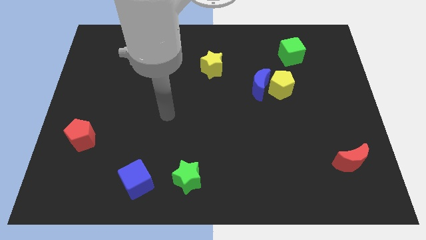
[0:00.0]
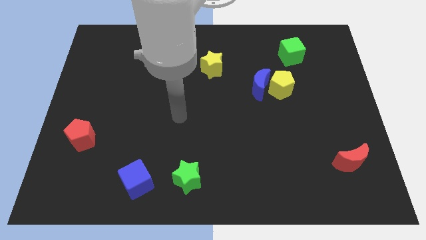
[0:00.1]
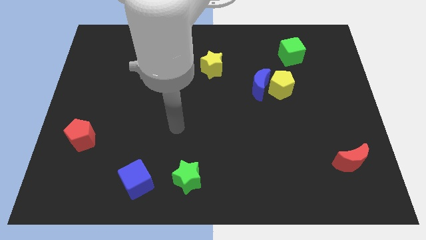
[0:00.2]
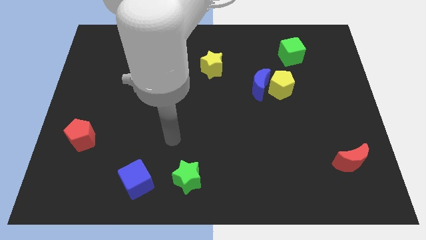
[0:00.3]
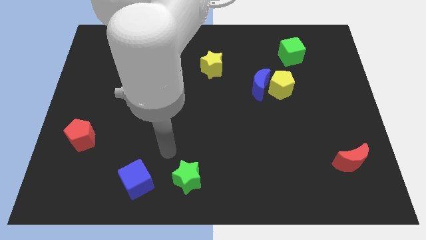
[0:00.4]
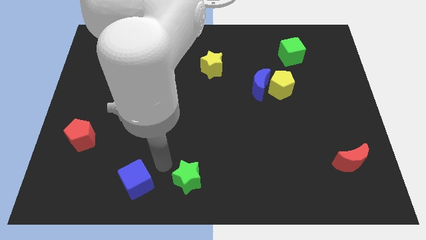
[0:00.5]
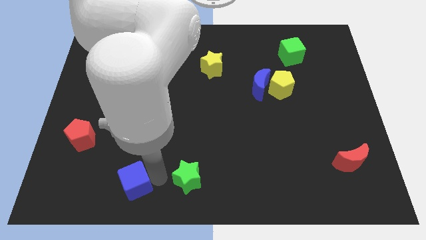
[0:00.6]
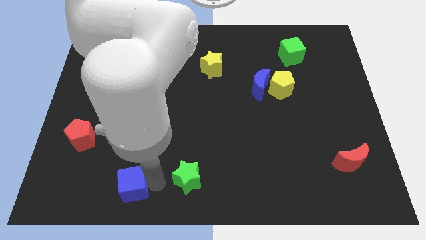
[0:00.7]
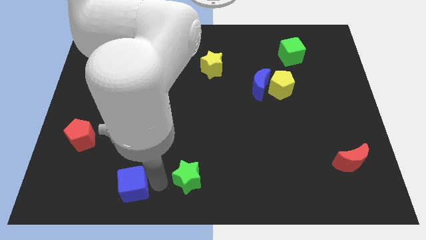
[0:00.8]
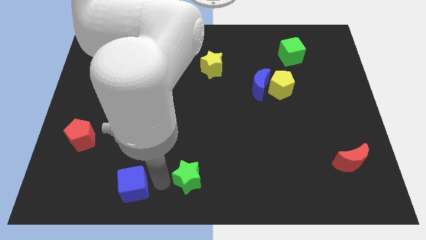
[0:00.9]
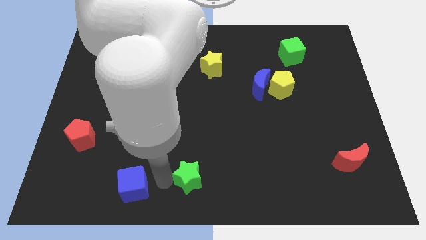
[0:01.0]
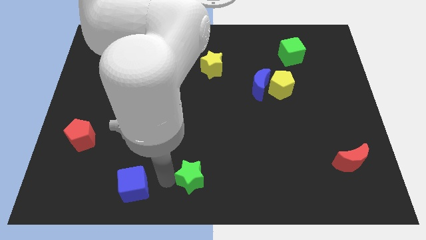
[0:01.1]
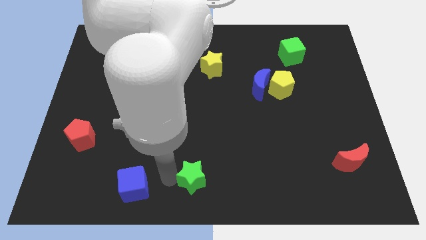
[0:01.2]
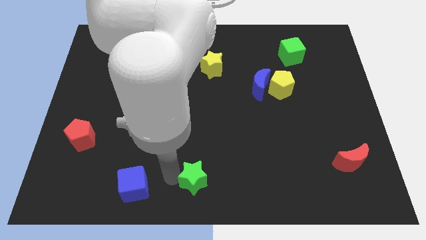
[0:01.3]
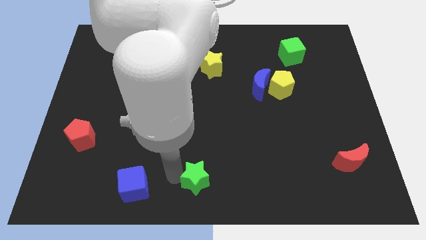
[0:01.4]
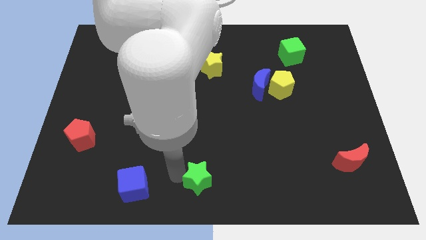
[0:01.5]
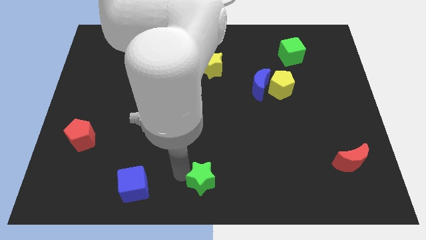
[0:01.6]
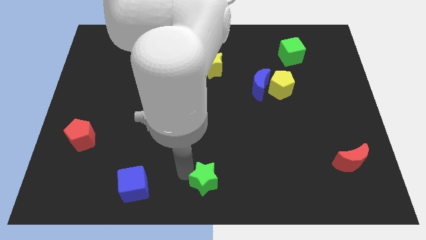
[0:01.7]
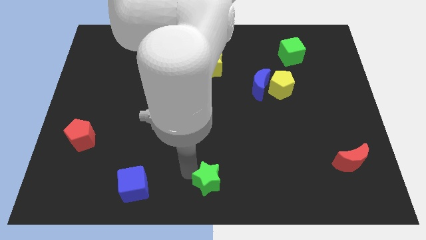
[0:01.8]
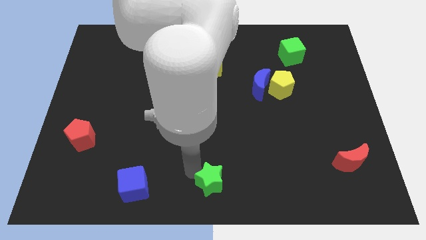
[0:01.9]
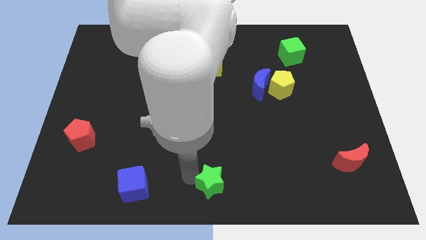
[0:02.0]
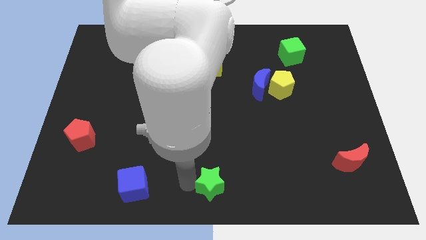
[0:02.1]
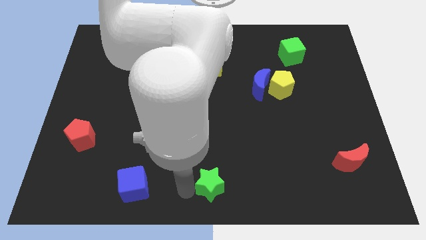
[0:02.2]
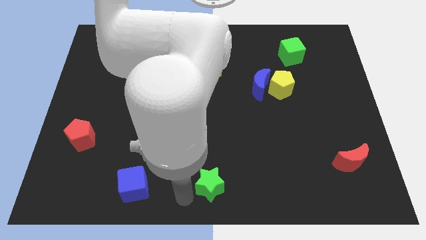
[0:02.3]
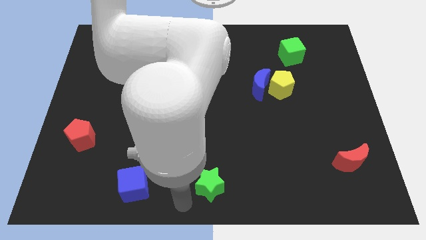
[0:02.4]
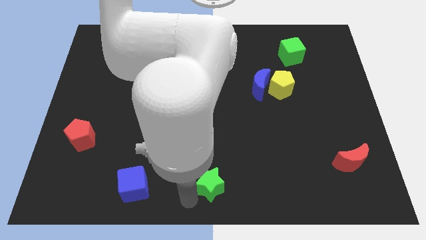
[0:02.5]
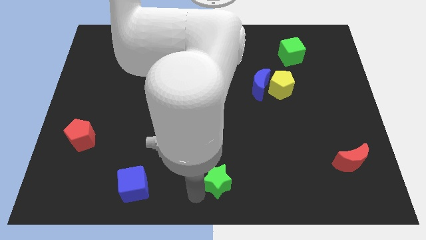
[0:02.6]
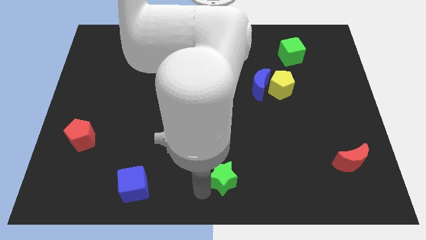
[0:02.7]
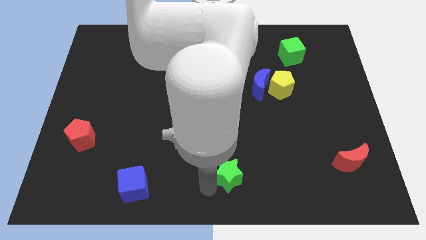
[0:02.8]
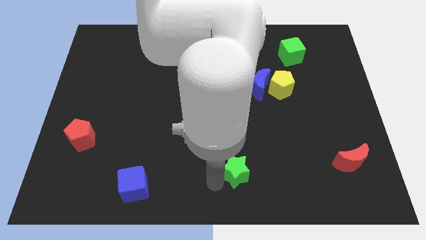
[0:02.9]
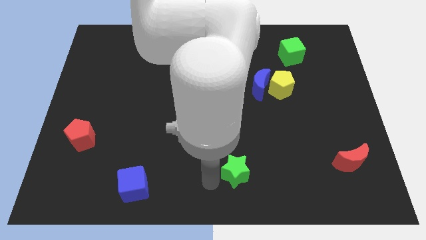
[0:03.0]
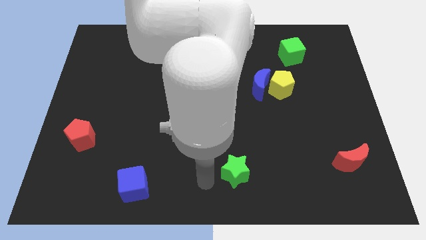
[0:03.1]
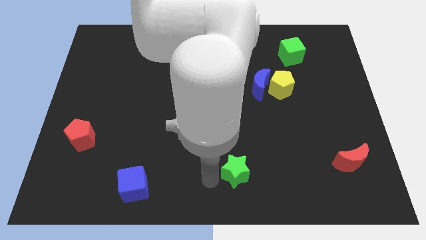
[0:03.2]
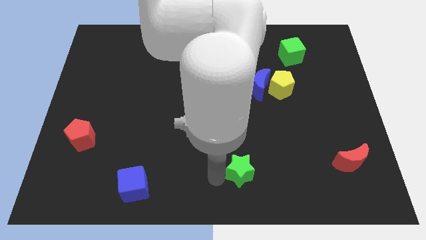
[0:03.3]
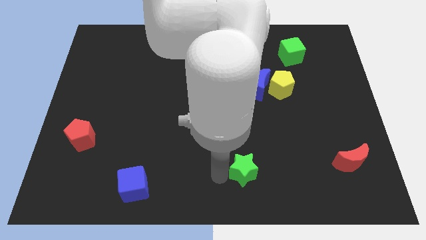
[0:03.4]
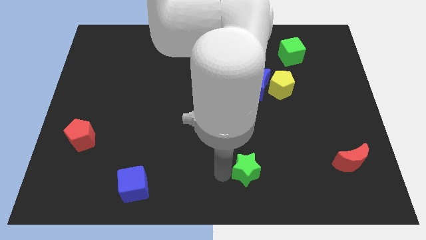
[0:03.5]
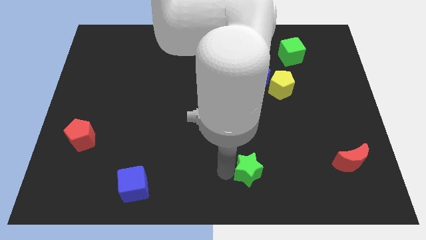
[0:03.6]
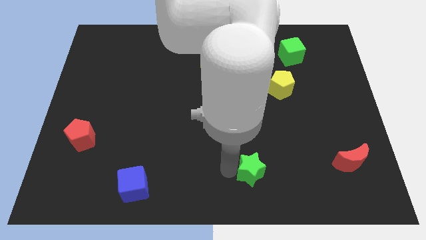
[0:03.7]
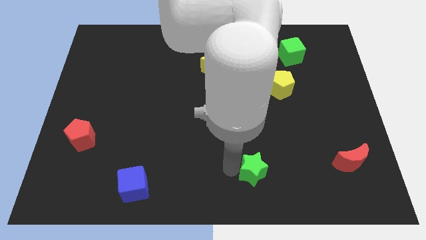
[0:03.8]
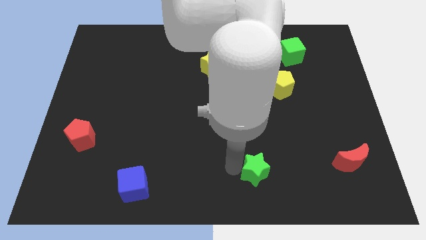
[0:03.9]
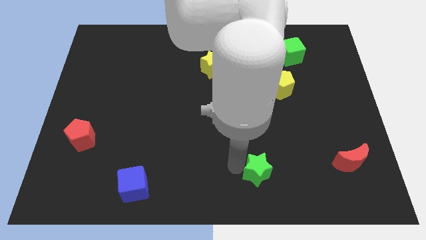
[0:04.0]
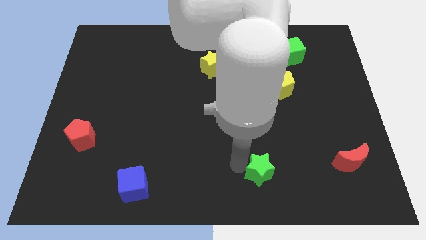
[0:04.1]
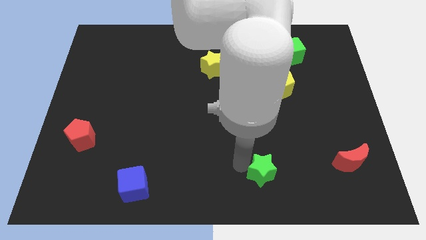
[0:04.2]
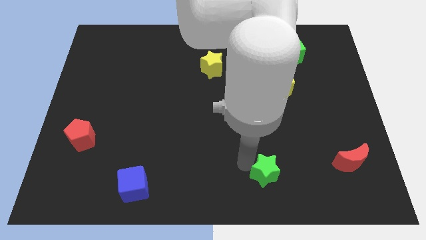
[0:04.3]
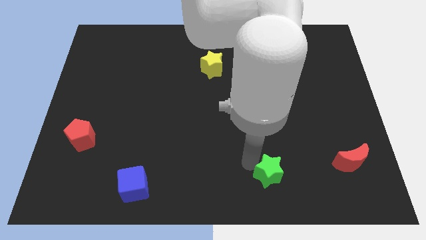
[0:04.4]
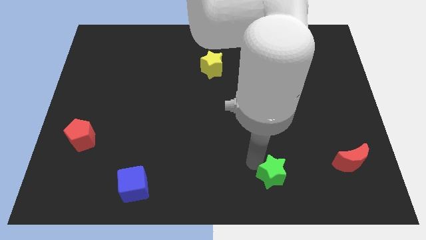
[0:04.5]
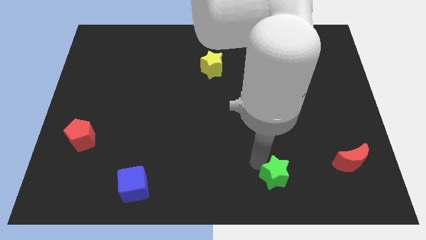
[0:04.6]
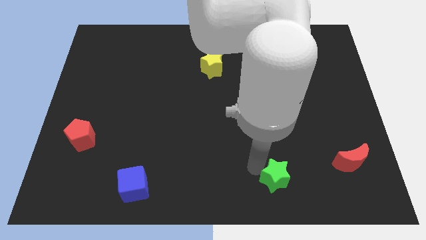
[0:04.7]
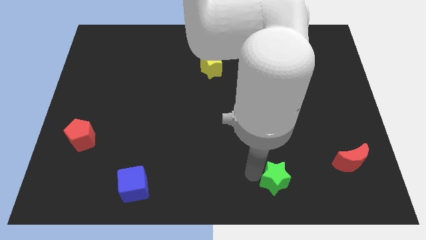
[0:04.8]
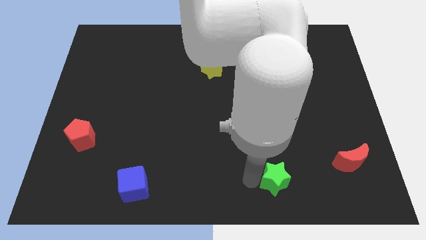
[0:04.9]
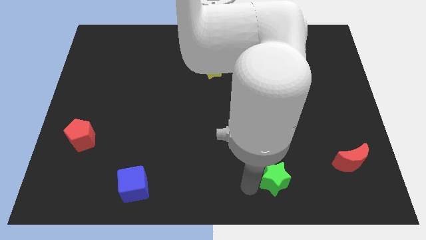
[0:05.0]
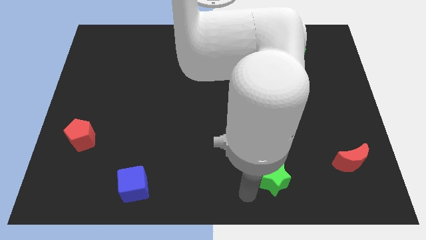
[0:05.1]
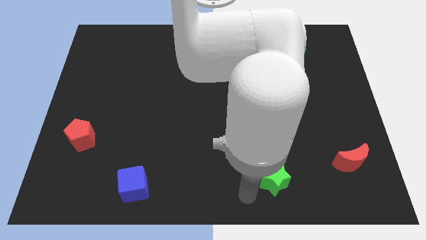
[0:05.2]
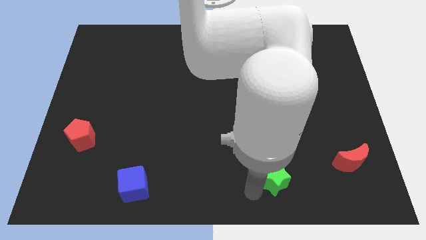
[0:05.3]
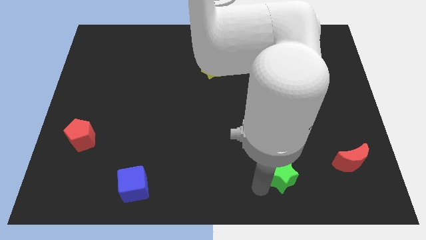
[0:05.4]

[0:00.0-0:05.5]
slide the green star just left of the red moon

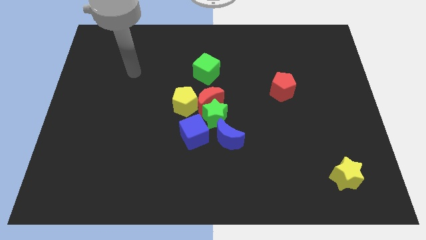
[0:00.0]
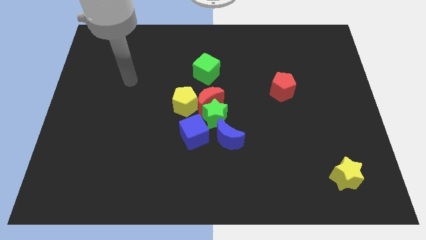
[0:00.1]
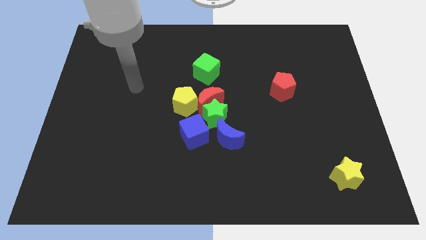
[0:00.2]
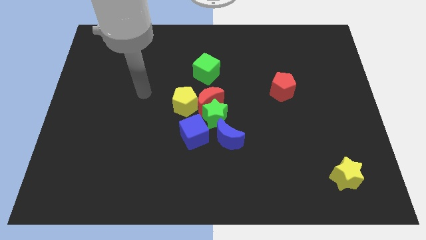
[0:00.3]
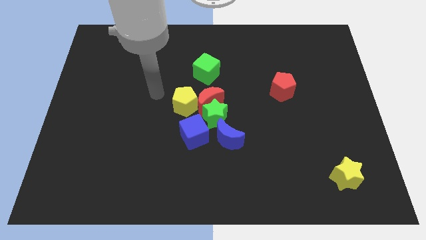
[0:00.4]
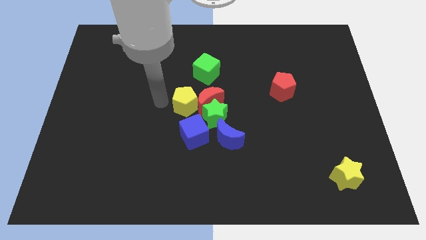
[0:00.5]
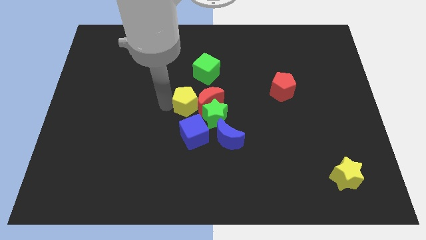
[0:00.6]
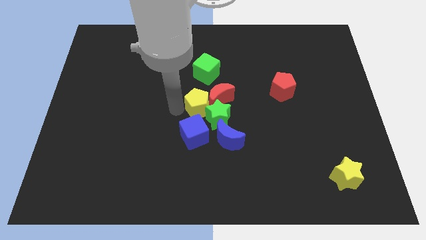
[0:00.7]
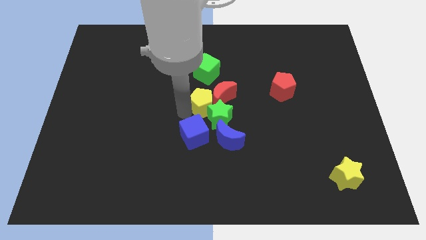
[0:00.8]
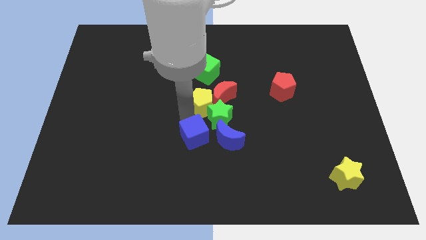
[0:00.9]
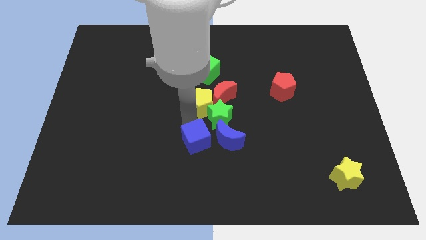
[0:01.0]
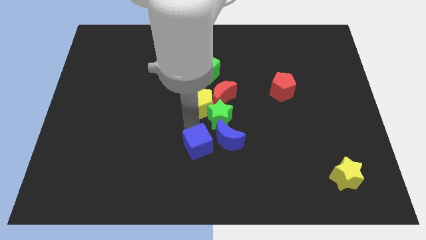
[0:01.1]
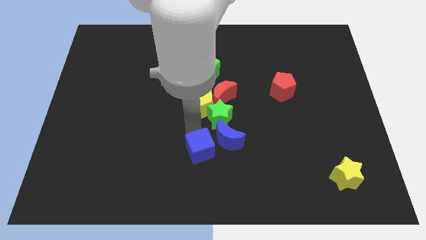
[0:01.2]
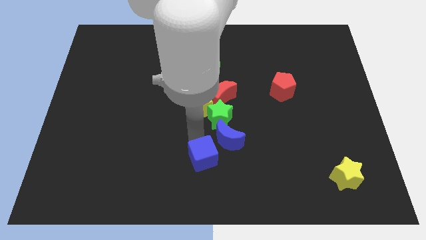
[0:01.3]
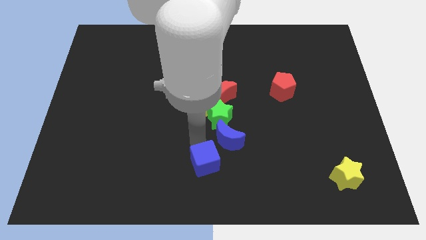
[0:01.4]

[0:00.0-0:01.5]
put the blue cube to the bottom side of the blue moon
